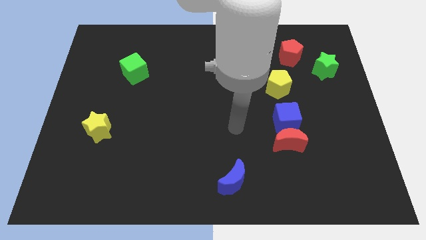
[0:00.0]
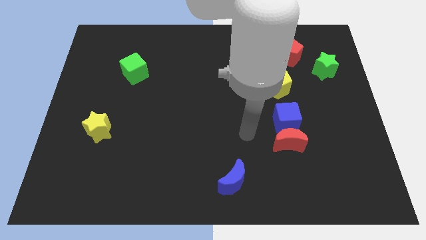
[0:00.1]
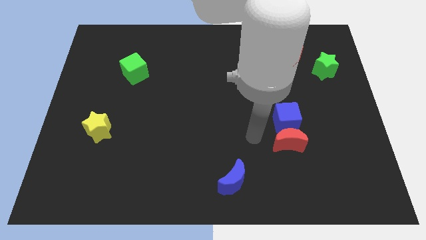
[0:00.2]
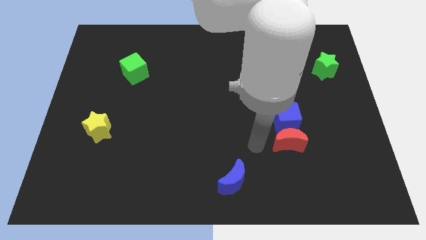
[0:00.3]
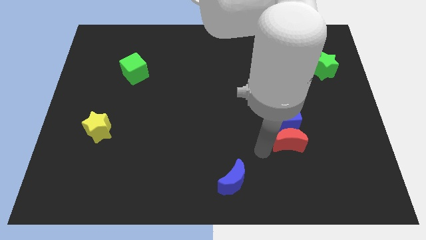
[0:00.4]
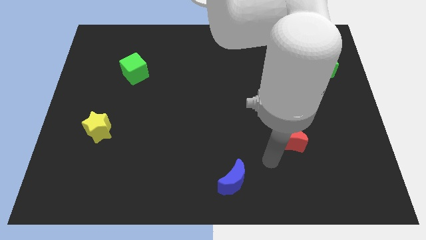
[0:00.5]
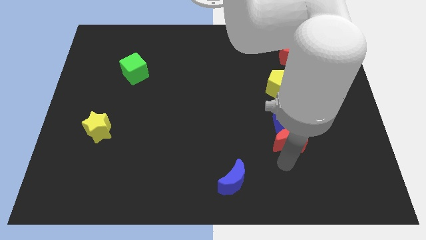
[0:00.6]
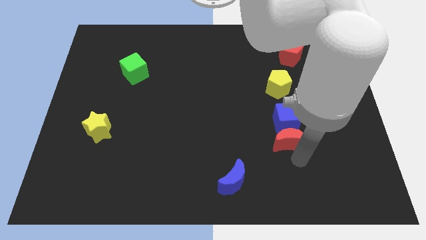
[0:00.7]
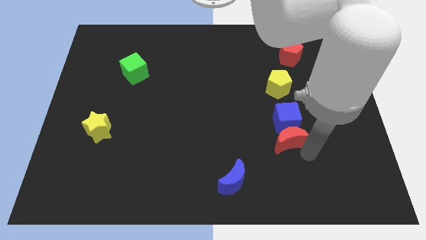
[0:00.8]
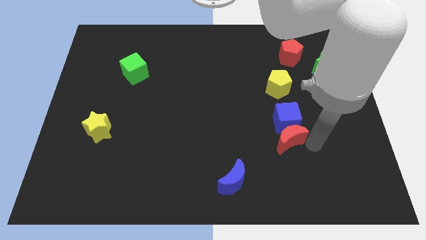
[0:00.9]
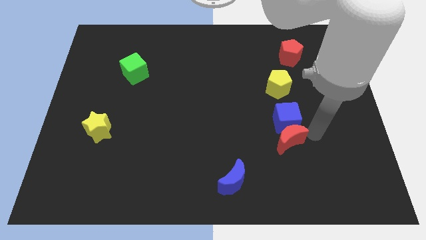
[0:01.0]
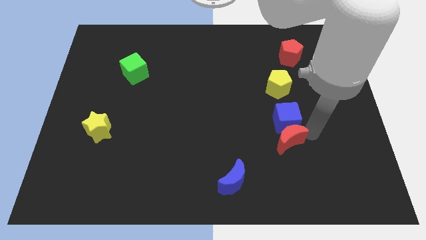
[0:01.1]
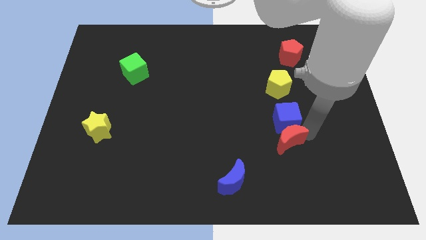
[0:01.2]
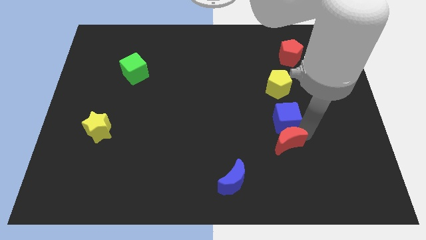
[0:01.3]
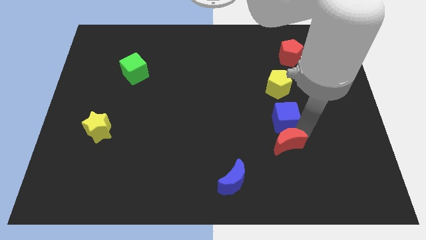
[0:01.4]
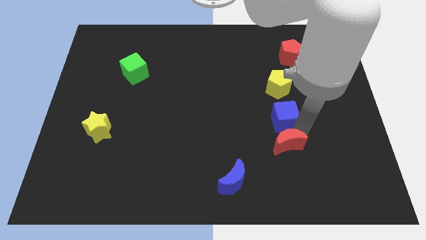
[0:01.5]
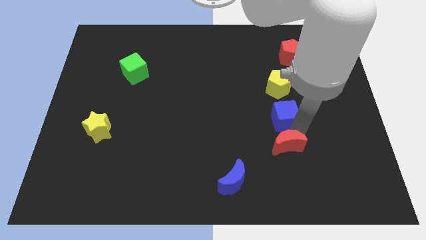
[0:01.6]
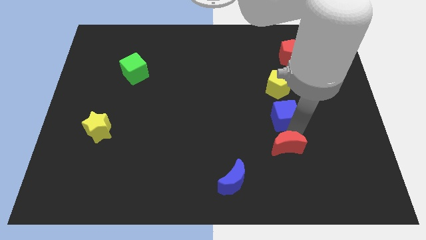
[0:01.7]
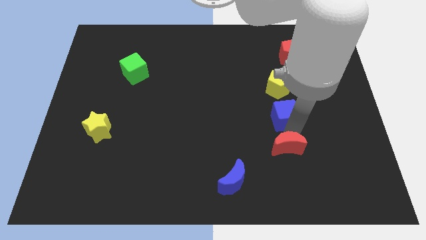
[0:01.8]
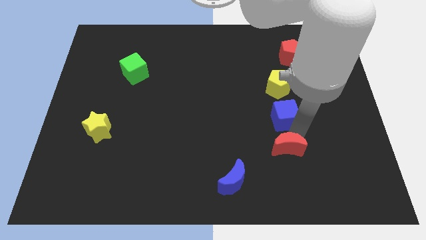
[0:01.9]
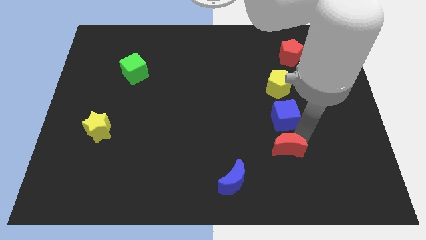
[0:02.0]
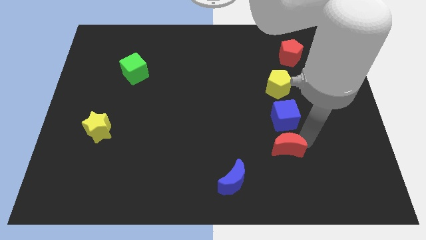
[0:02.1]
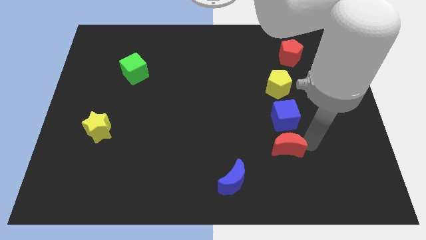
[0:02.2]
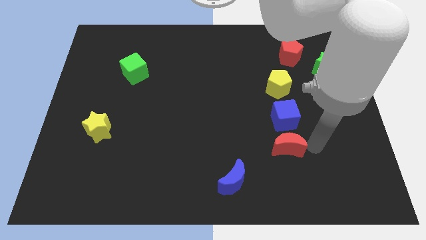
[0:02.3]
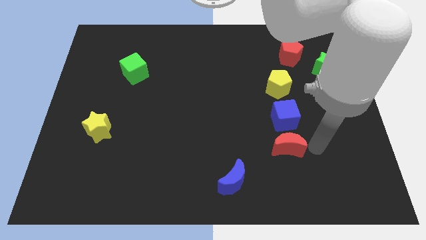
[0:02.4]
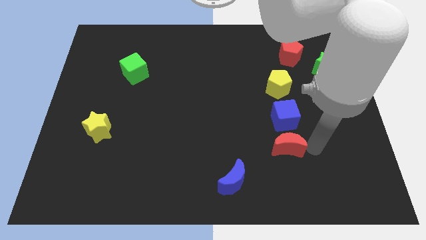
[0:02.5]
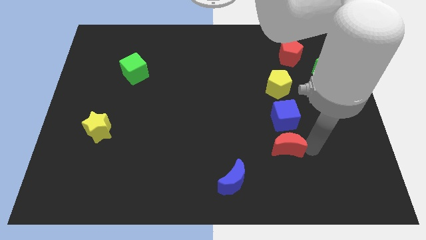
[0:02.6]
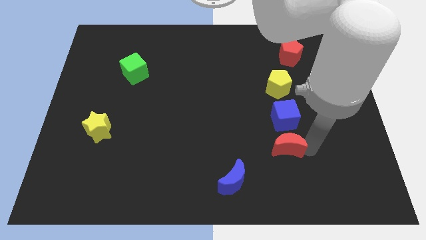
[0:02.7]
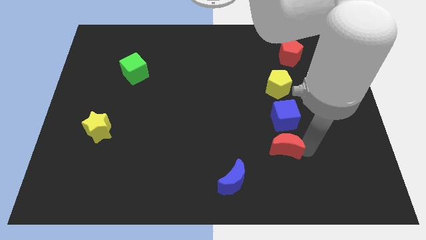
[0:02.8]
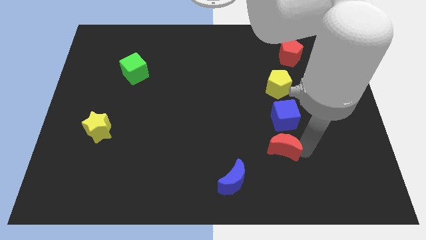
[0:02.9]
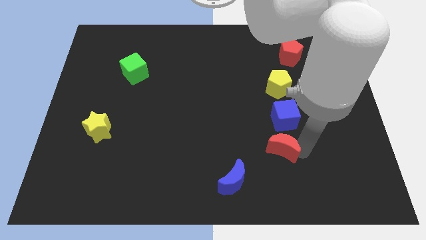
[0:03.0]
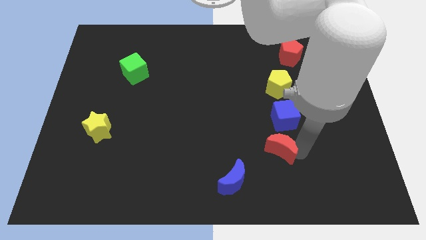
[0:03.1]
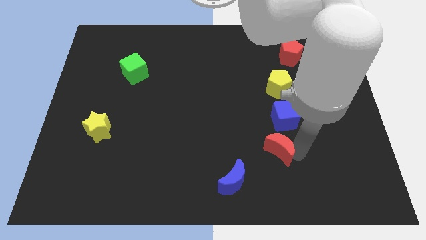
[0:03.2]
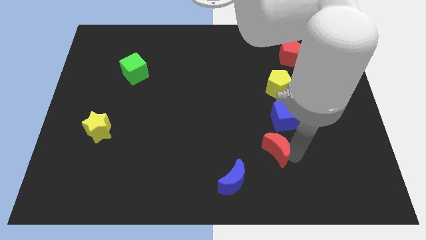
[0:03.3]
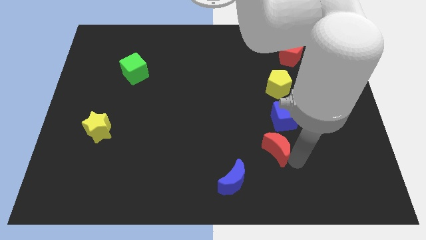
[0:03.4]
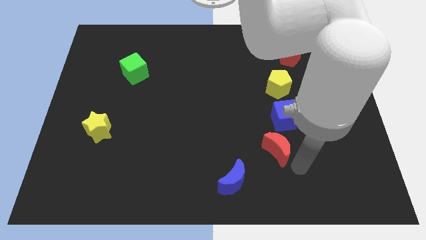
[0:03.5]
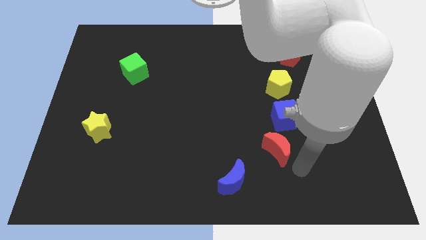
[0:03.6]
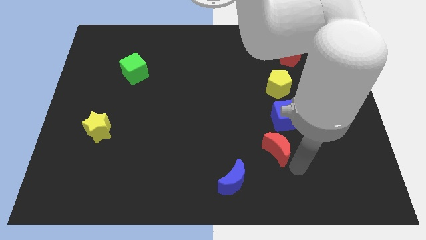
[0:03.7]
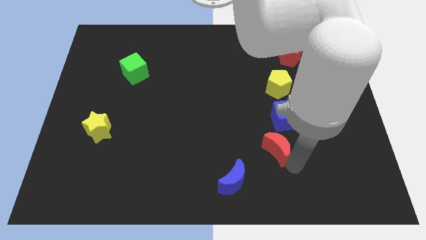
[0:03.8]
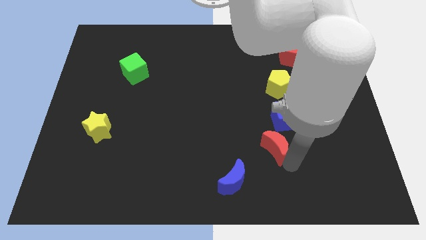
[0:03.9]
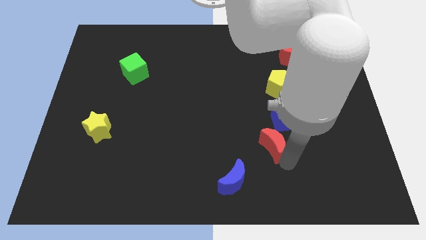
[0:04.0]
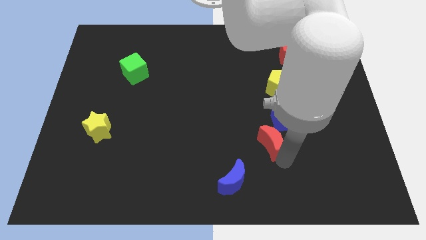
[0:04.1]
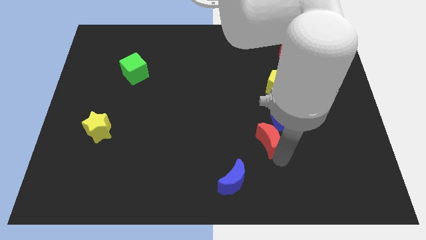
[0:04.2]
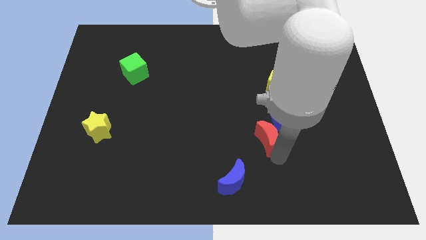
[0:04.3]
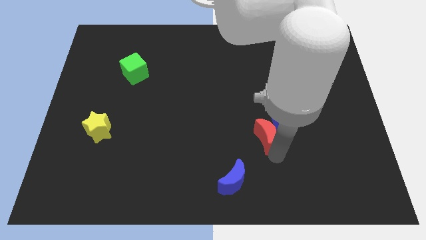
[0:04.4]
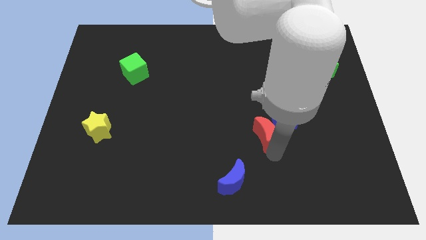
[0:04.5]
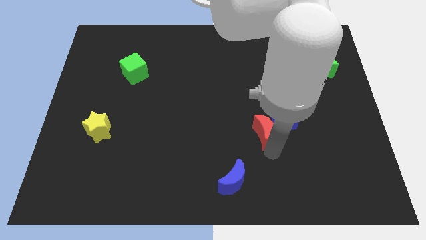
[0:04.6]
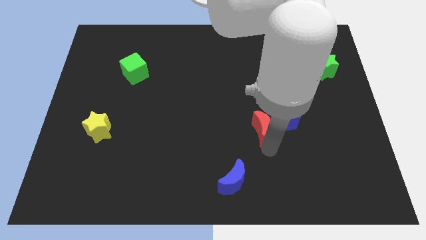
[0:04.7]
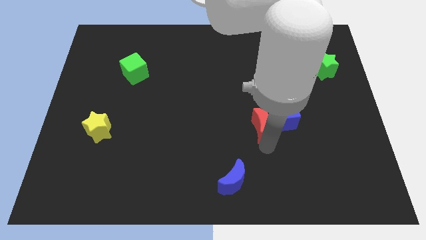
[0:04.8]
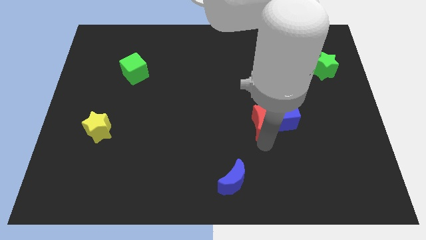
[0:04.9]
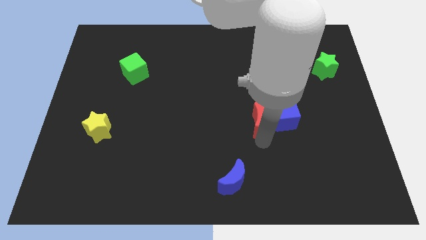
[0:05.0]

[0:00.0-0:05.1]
put the red moon to the middle of the board

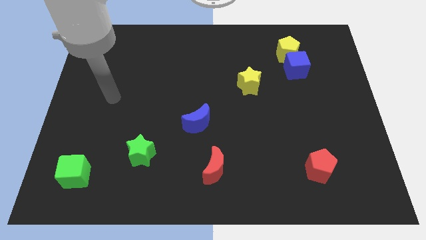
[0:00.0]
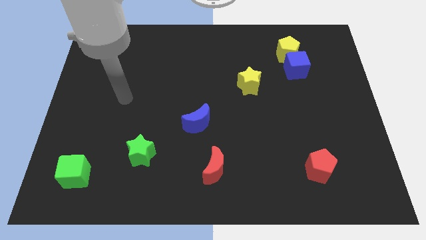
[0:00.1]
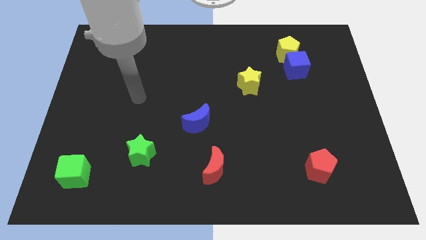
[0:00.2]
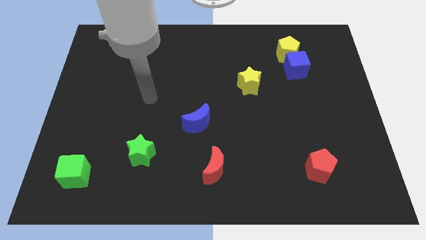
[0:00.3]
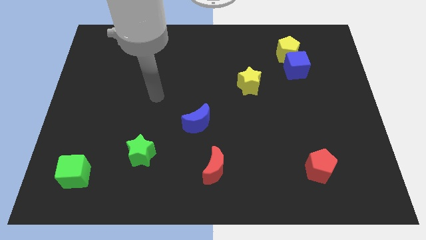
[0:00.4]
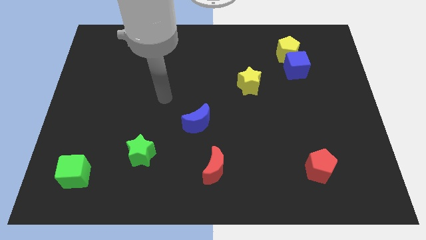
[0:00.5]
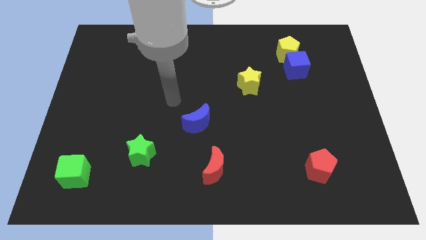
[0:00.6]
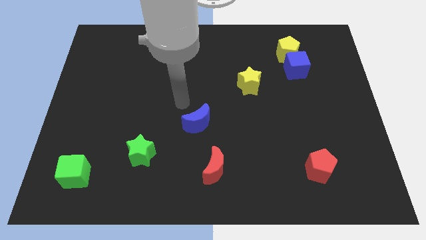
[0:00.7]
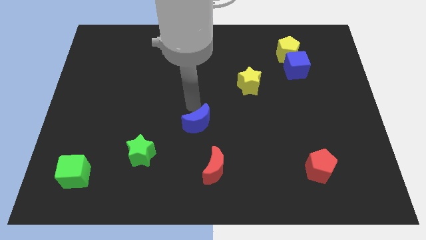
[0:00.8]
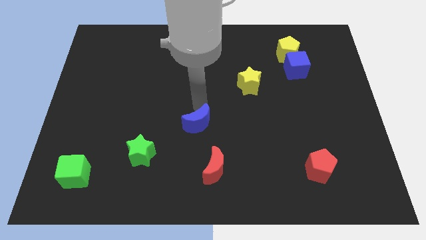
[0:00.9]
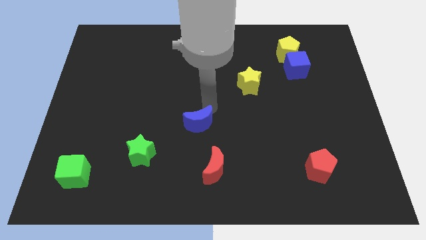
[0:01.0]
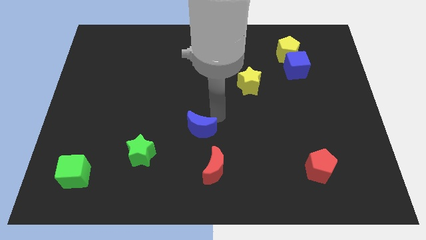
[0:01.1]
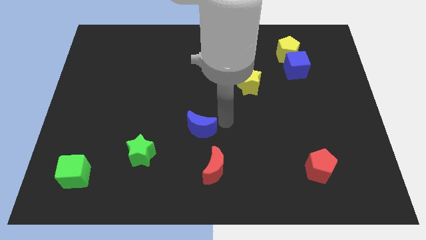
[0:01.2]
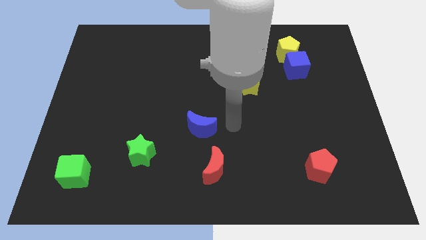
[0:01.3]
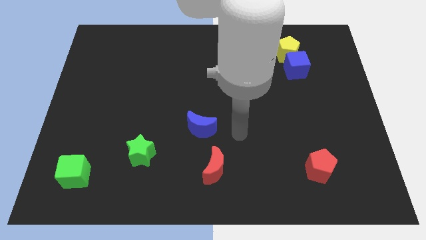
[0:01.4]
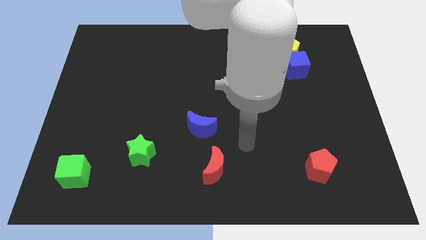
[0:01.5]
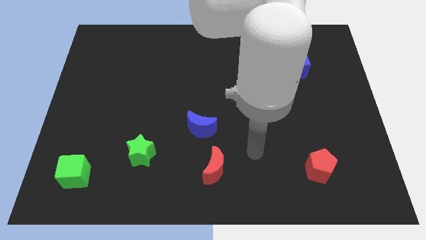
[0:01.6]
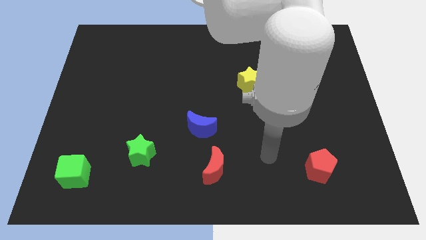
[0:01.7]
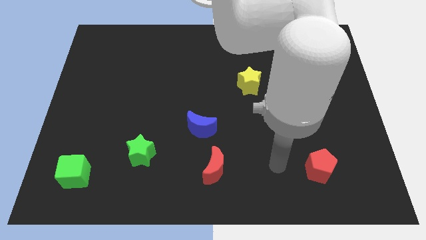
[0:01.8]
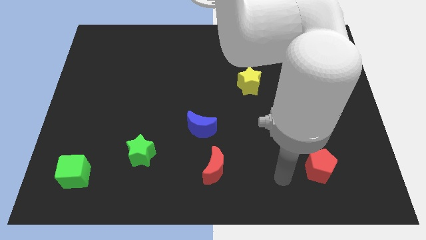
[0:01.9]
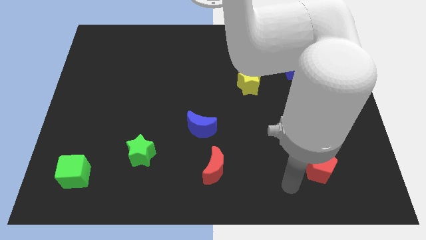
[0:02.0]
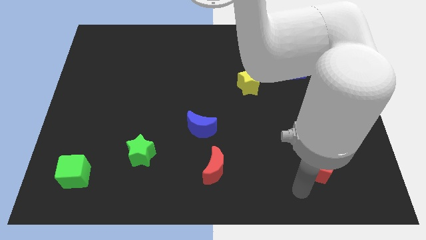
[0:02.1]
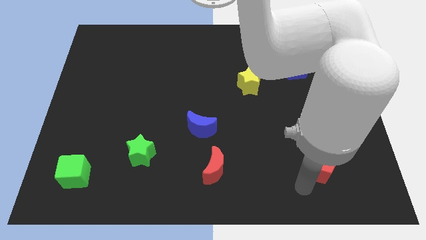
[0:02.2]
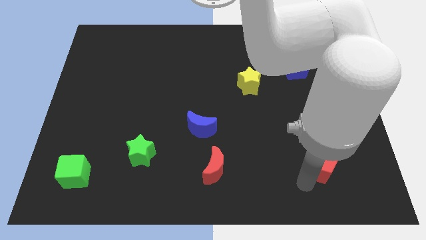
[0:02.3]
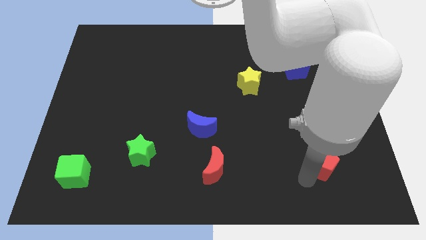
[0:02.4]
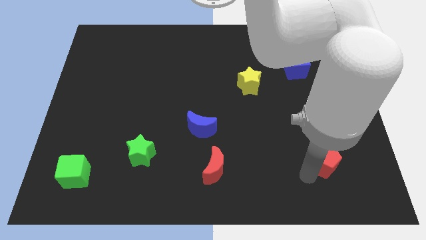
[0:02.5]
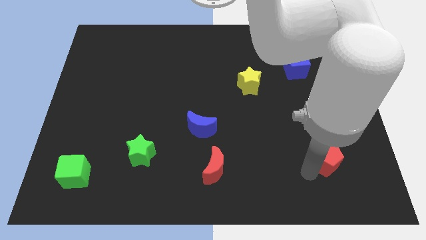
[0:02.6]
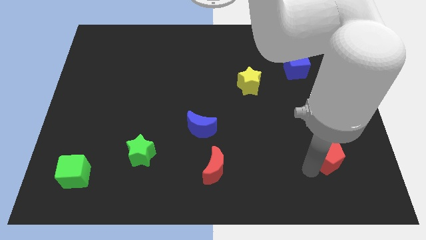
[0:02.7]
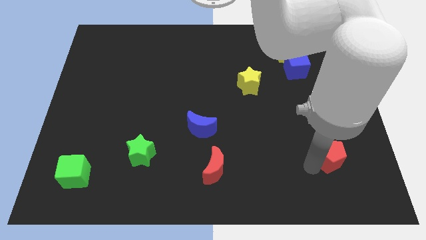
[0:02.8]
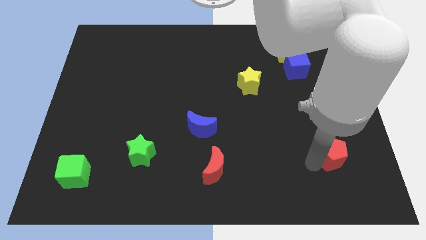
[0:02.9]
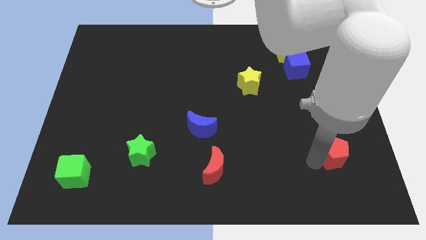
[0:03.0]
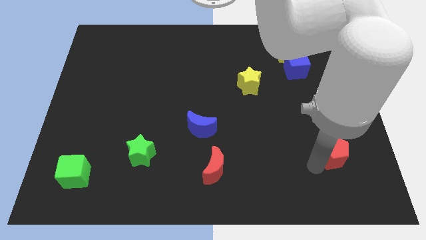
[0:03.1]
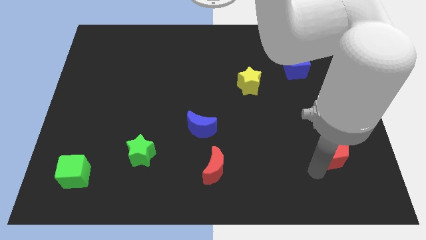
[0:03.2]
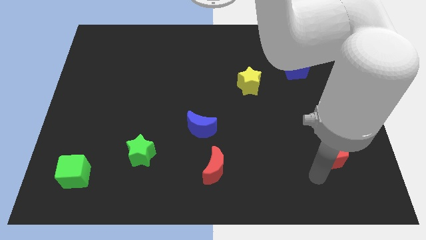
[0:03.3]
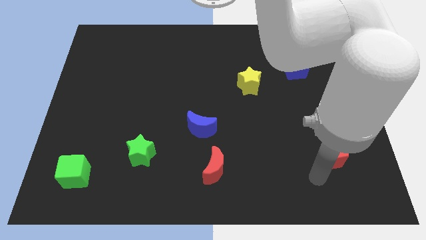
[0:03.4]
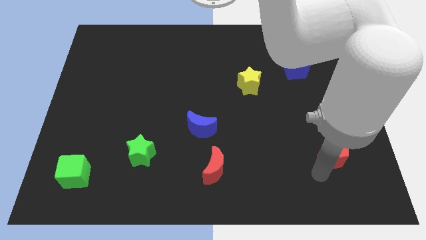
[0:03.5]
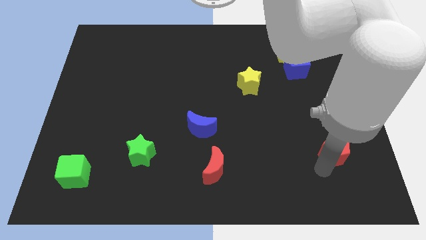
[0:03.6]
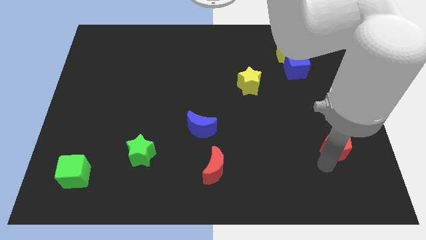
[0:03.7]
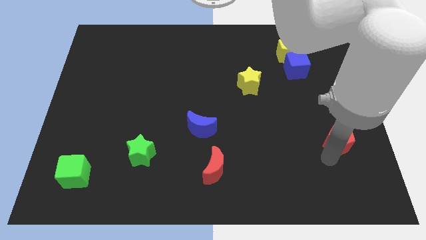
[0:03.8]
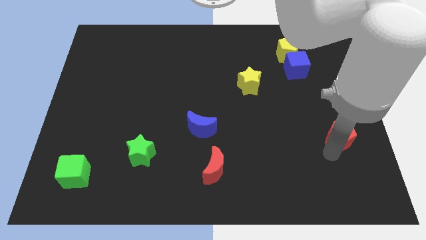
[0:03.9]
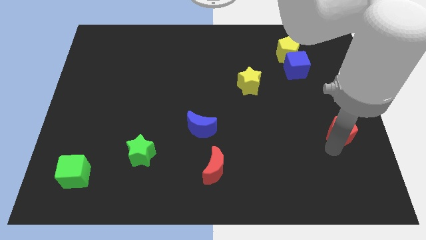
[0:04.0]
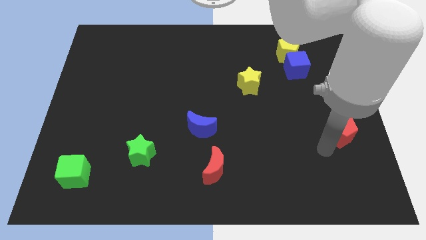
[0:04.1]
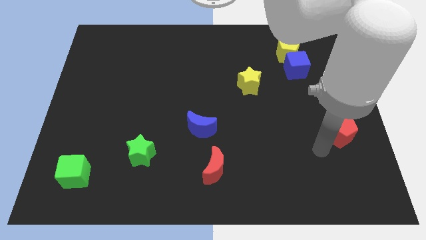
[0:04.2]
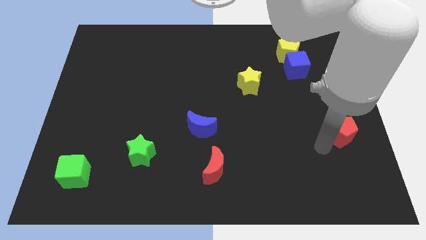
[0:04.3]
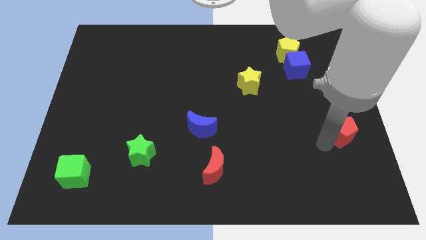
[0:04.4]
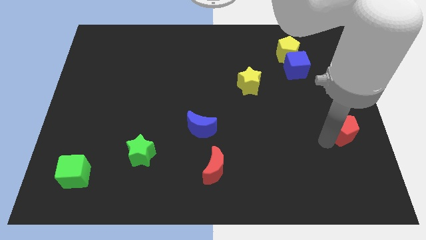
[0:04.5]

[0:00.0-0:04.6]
push the red pentagon to the right side of the board
